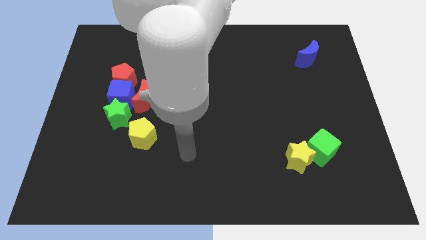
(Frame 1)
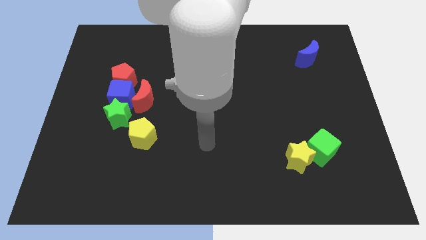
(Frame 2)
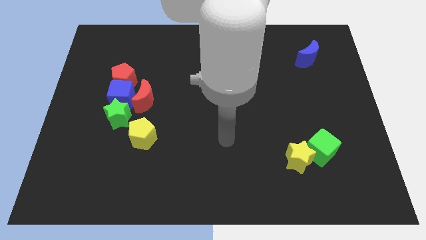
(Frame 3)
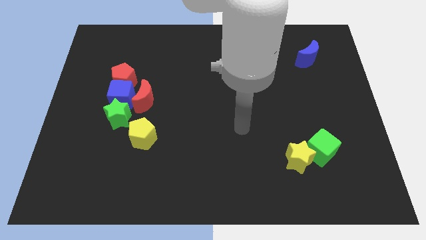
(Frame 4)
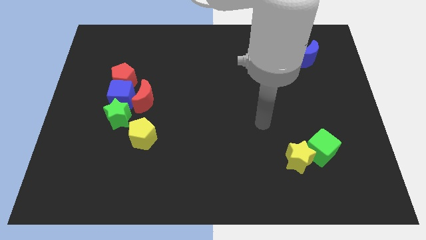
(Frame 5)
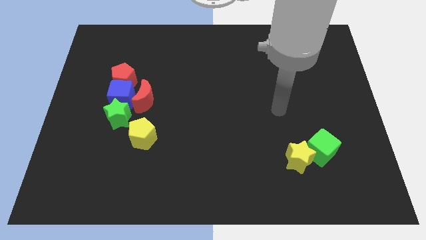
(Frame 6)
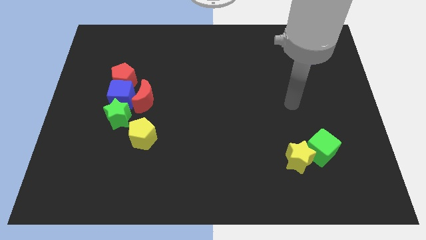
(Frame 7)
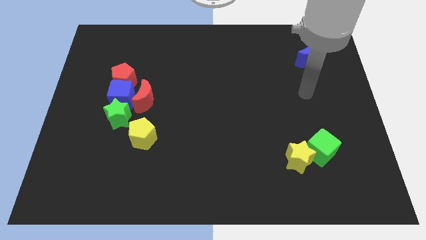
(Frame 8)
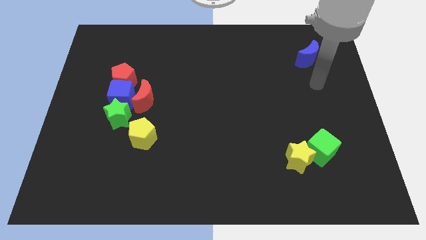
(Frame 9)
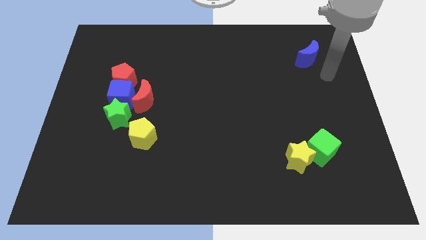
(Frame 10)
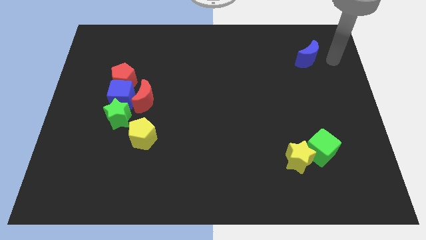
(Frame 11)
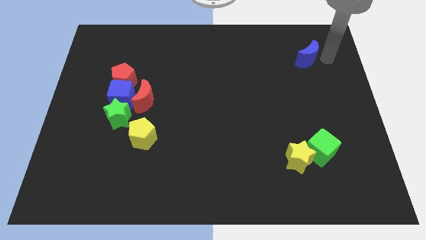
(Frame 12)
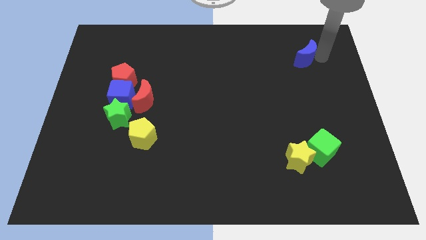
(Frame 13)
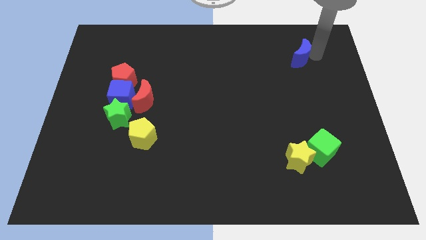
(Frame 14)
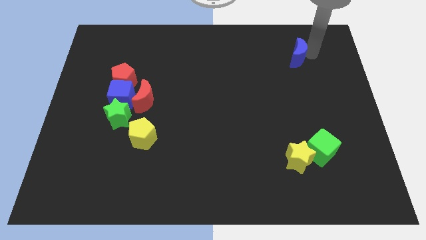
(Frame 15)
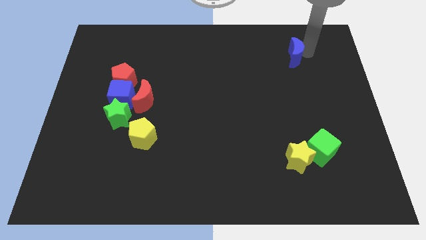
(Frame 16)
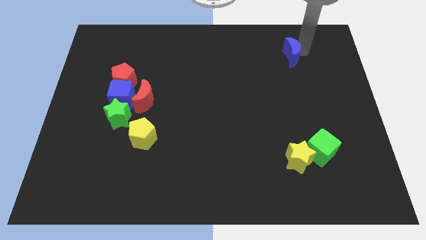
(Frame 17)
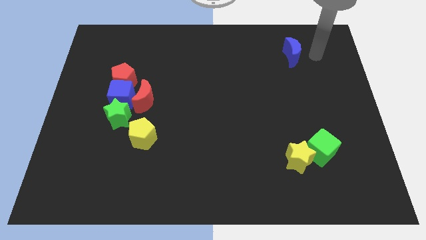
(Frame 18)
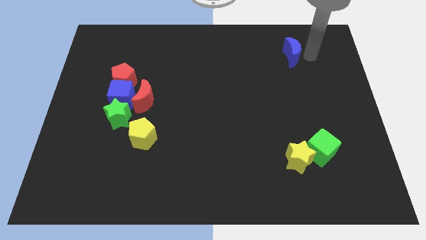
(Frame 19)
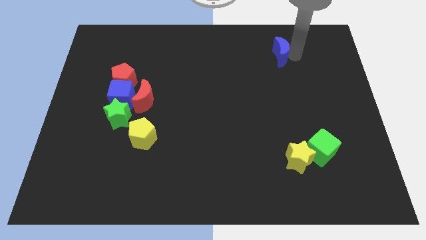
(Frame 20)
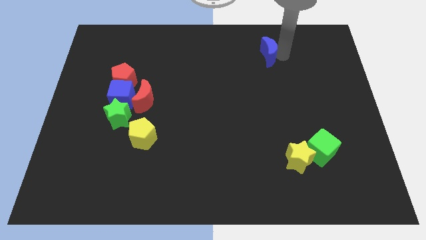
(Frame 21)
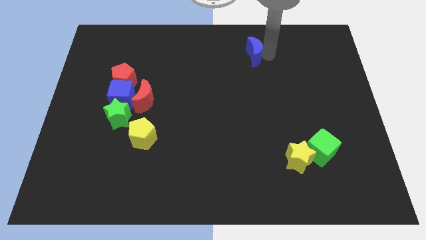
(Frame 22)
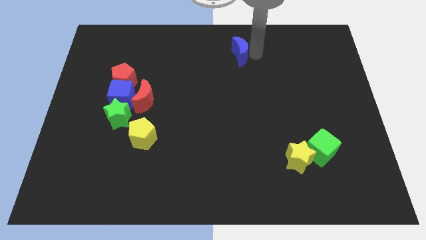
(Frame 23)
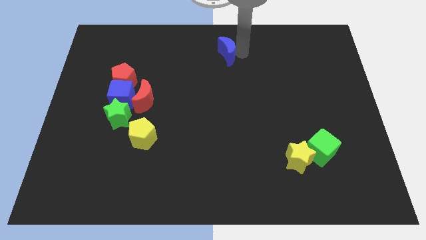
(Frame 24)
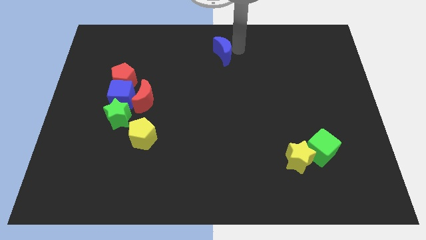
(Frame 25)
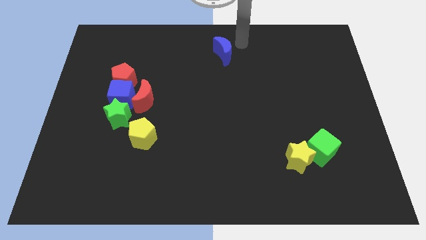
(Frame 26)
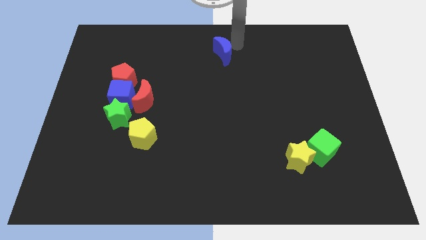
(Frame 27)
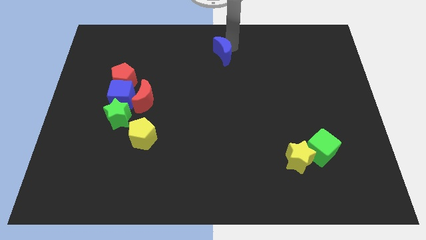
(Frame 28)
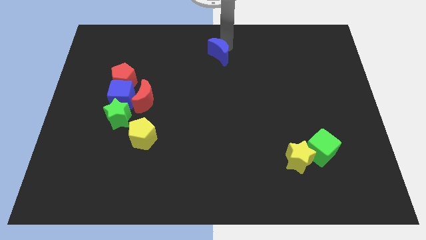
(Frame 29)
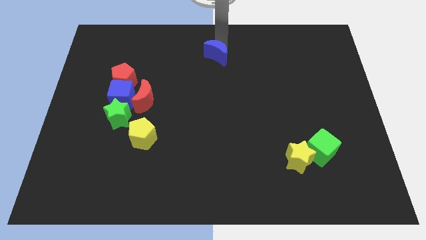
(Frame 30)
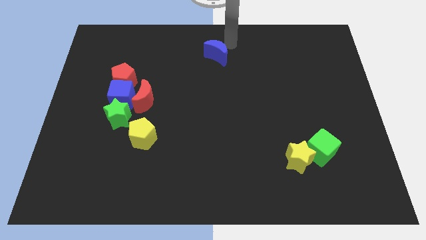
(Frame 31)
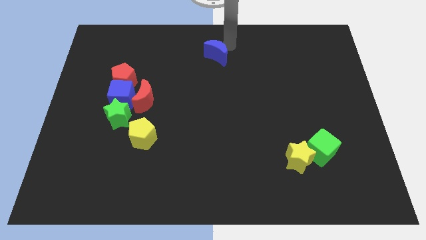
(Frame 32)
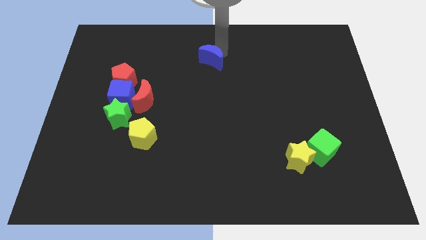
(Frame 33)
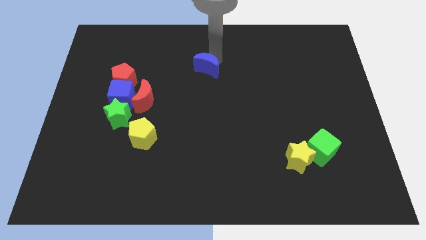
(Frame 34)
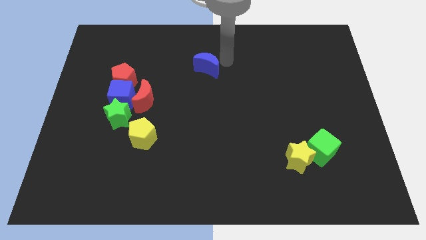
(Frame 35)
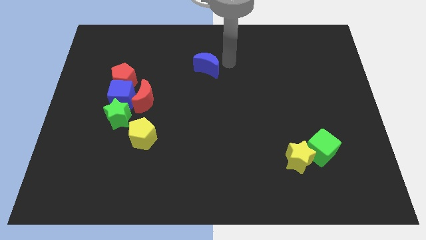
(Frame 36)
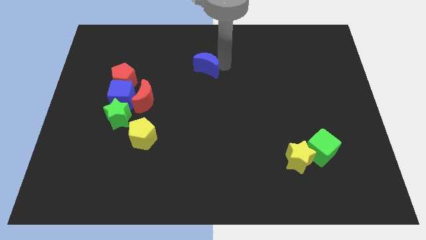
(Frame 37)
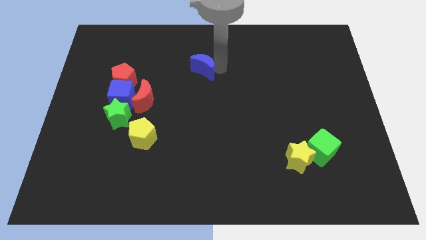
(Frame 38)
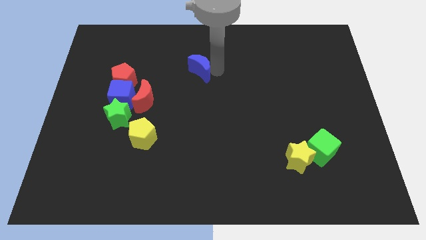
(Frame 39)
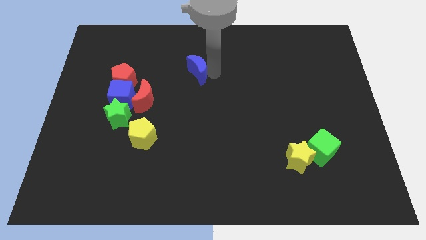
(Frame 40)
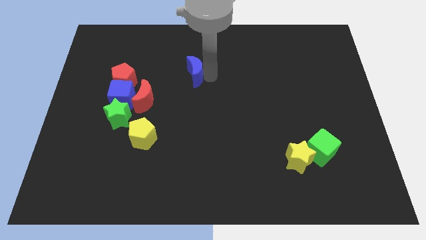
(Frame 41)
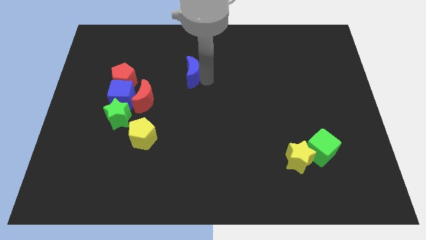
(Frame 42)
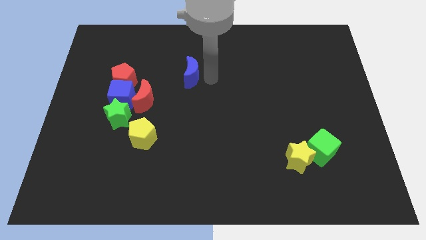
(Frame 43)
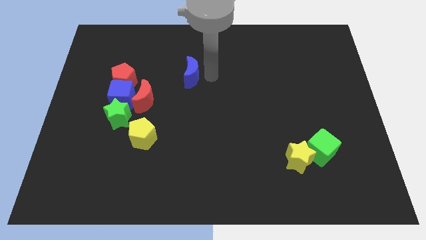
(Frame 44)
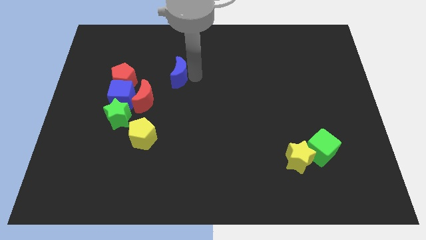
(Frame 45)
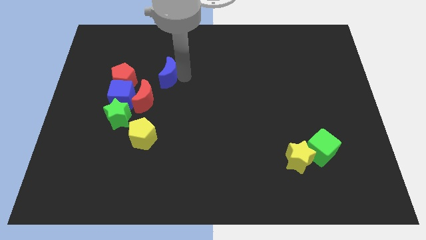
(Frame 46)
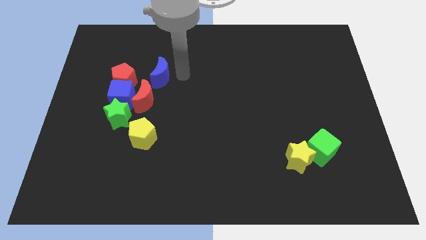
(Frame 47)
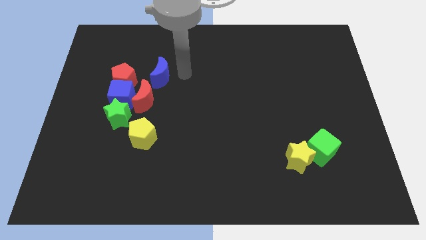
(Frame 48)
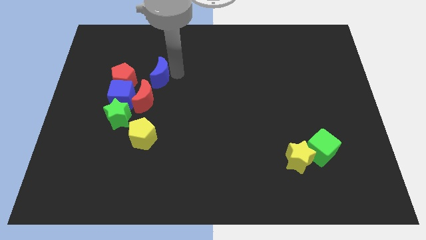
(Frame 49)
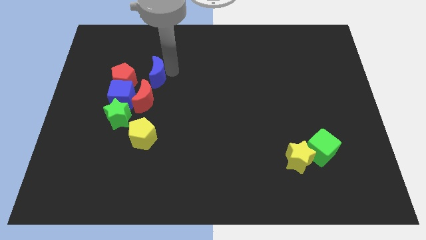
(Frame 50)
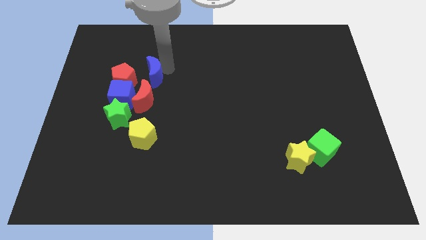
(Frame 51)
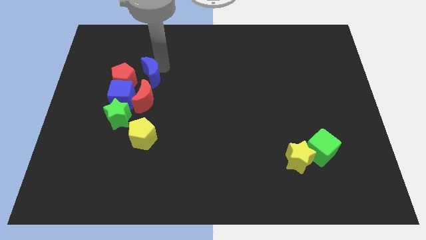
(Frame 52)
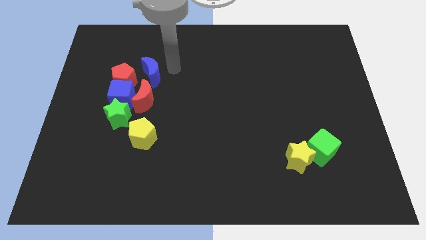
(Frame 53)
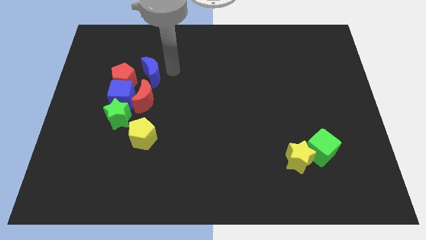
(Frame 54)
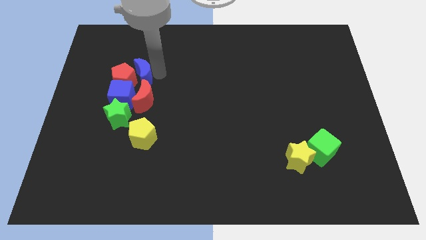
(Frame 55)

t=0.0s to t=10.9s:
push the blue moon towards the red pentagon

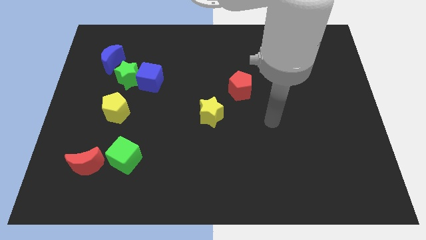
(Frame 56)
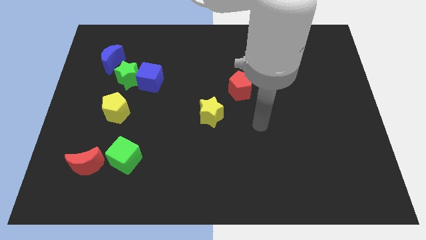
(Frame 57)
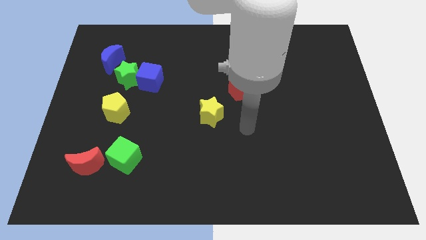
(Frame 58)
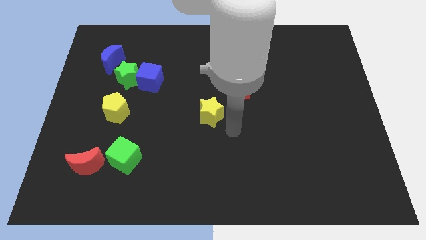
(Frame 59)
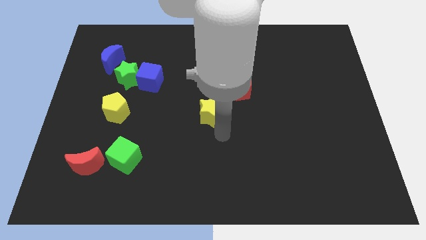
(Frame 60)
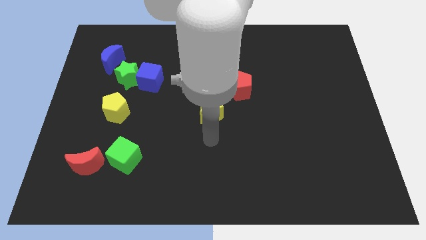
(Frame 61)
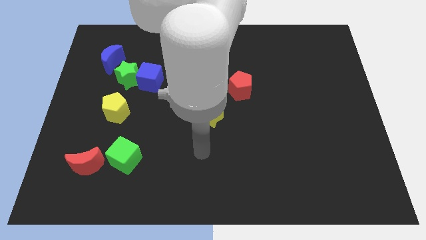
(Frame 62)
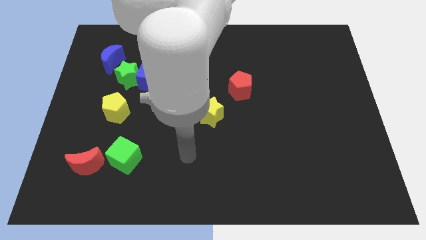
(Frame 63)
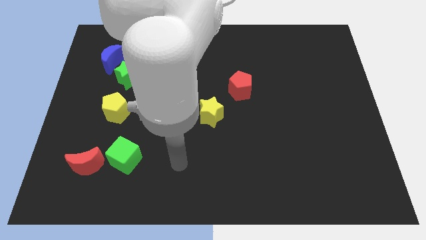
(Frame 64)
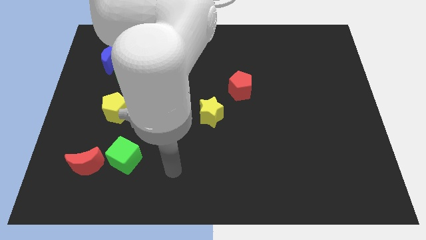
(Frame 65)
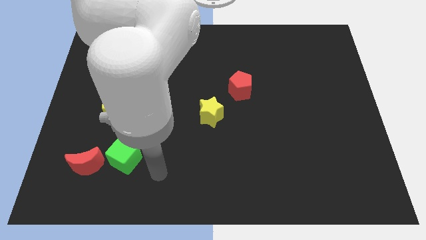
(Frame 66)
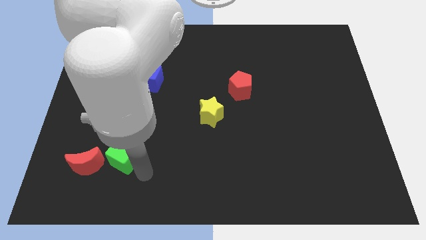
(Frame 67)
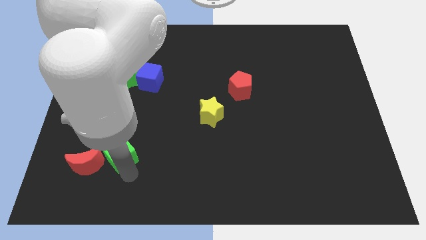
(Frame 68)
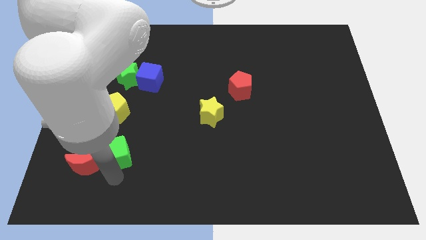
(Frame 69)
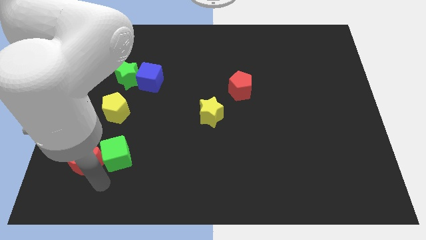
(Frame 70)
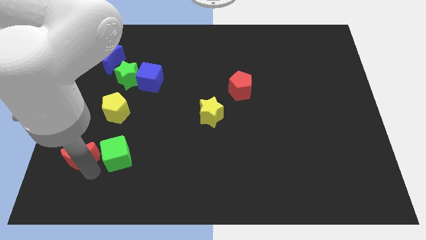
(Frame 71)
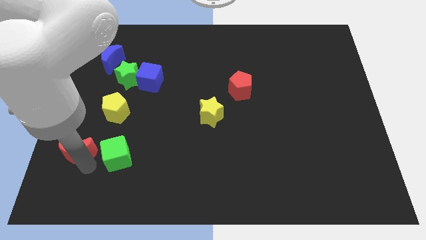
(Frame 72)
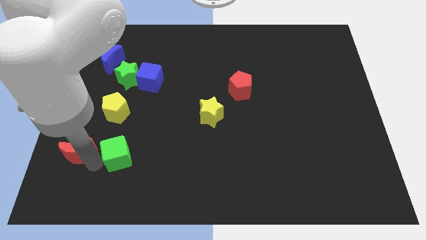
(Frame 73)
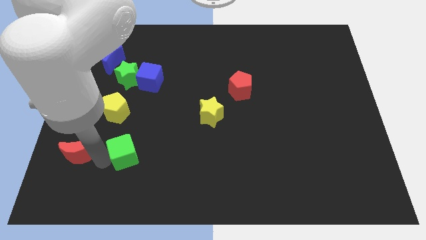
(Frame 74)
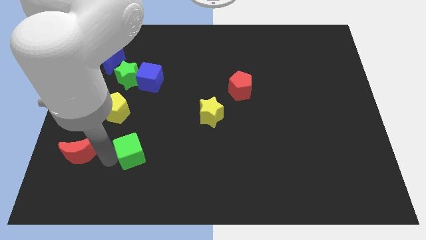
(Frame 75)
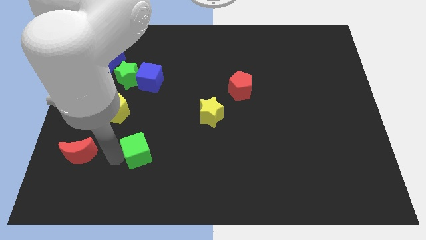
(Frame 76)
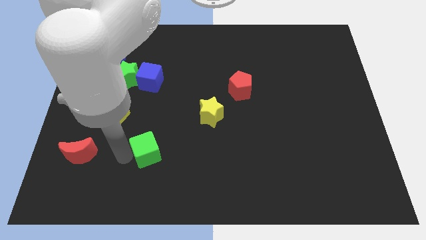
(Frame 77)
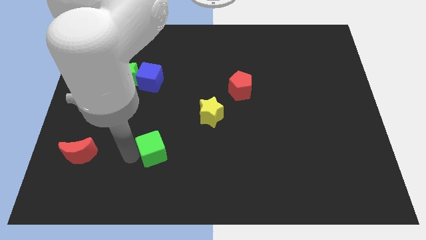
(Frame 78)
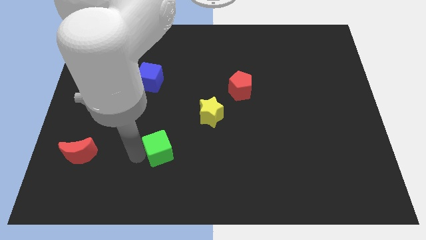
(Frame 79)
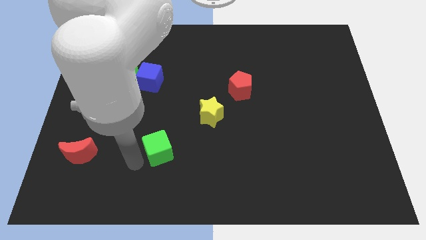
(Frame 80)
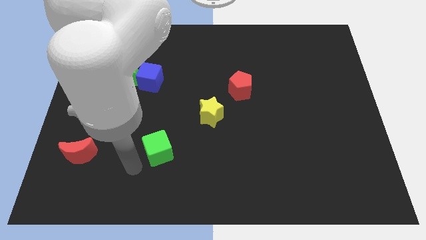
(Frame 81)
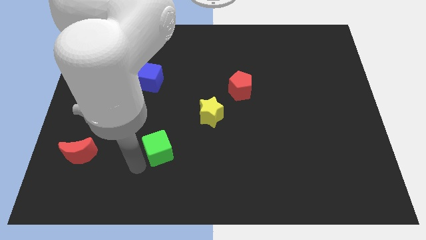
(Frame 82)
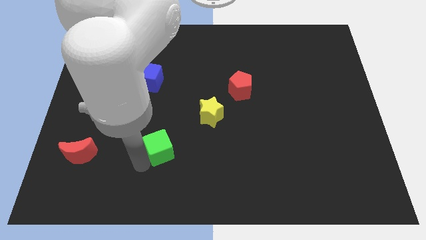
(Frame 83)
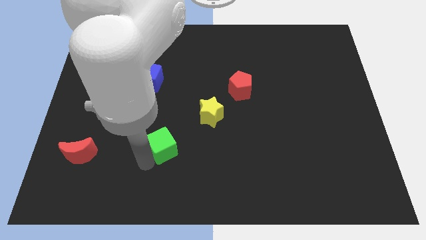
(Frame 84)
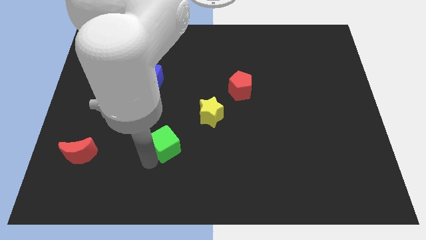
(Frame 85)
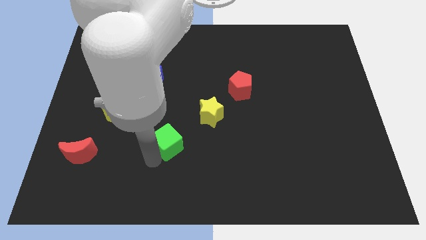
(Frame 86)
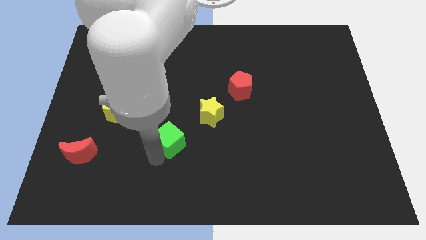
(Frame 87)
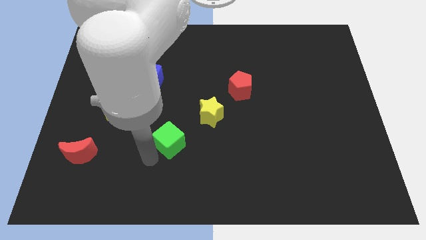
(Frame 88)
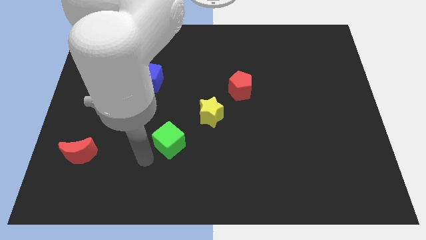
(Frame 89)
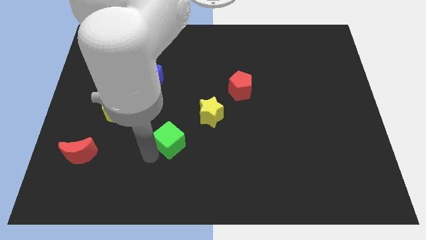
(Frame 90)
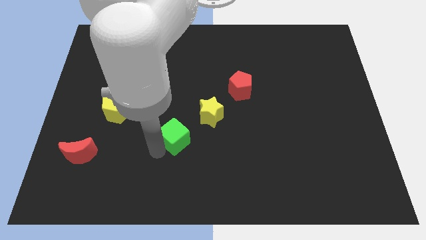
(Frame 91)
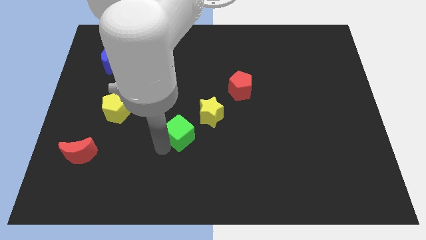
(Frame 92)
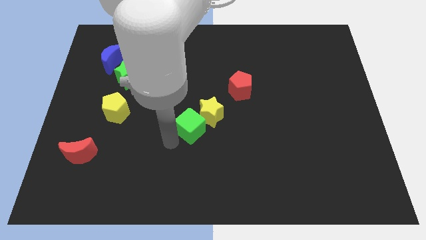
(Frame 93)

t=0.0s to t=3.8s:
move the green cube to the yellow star
